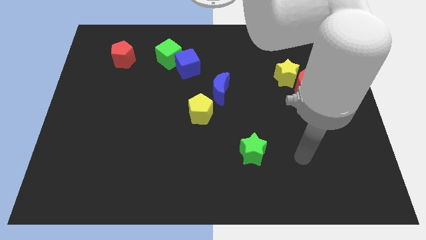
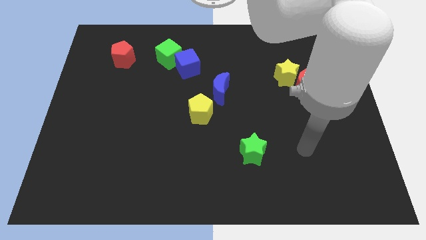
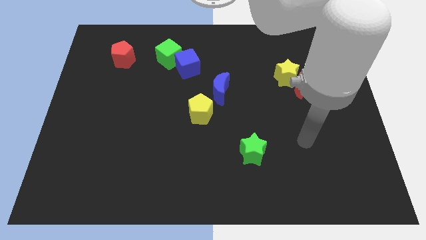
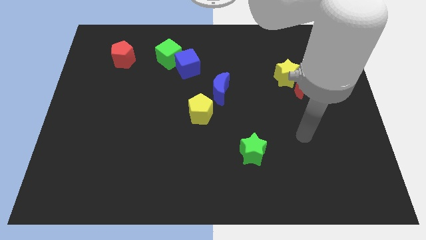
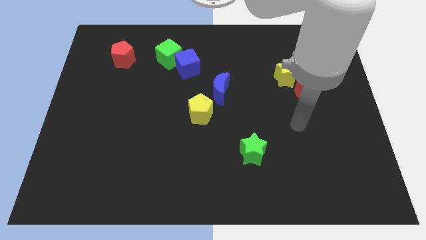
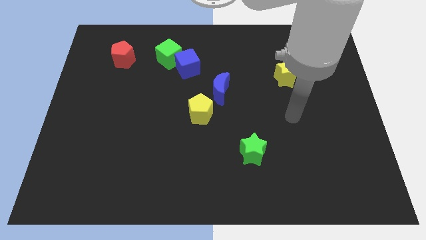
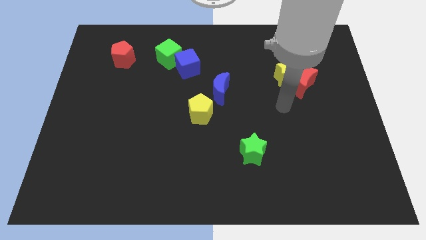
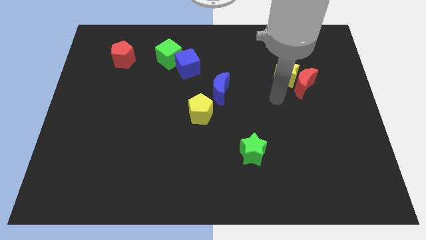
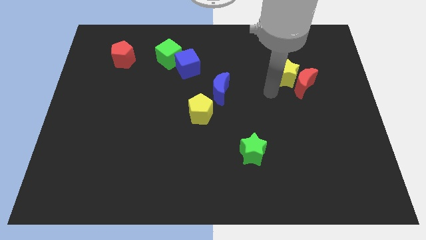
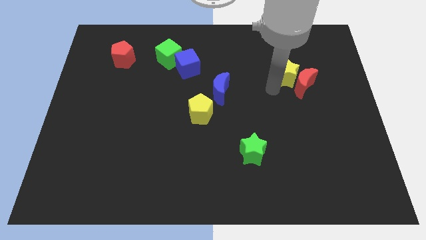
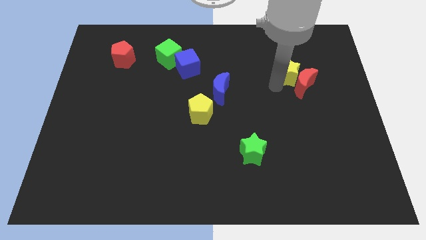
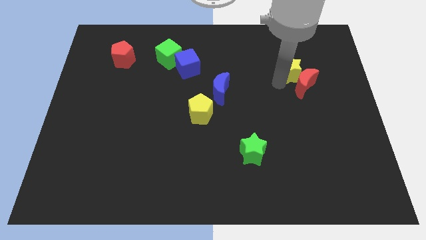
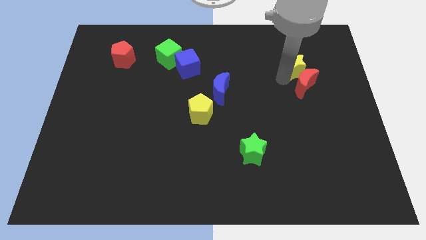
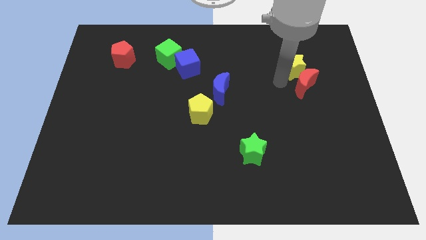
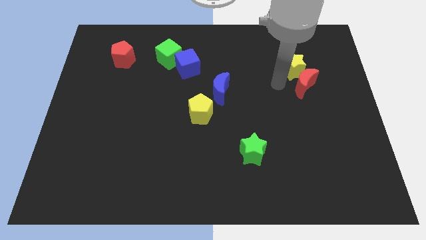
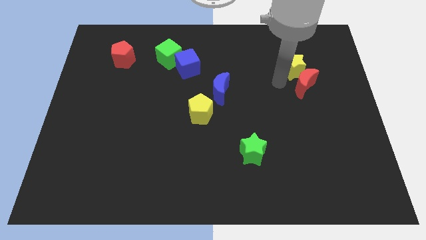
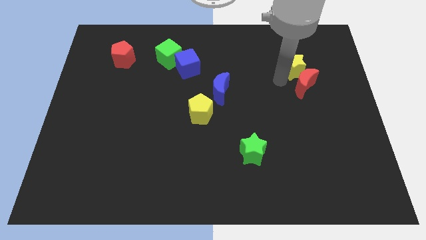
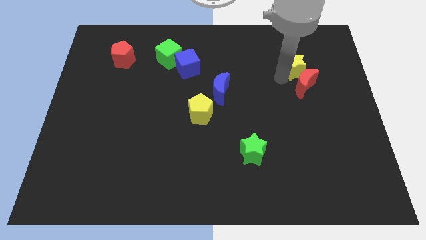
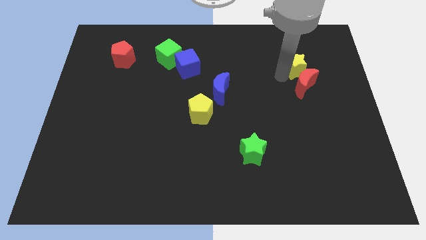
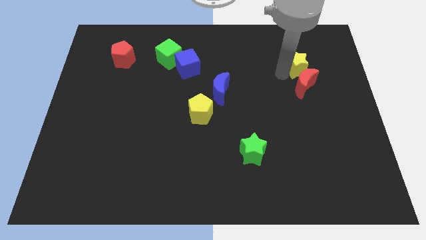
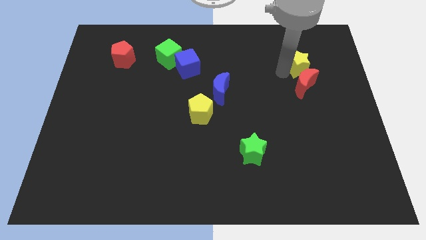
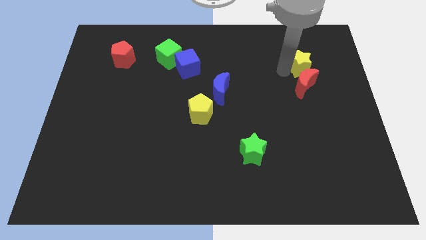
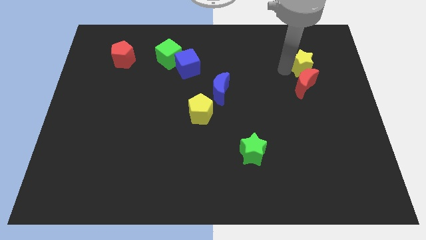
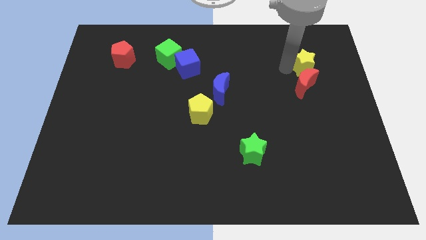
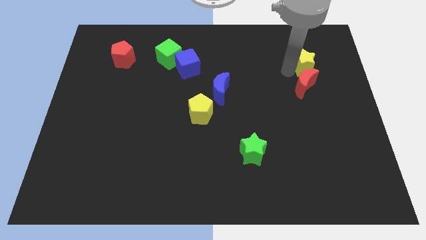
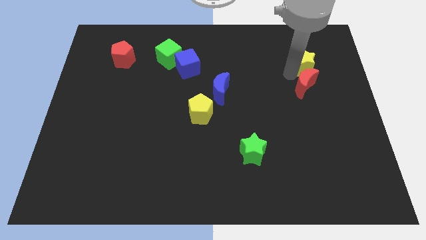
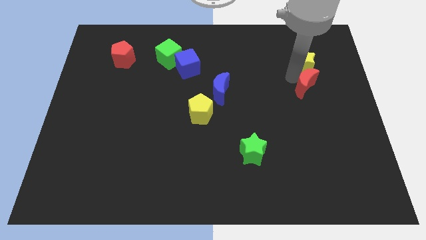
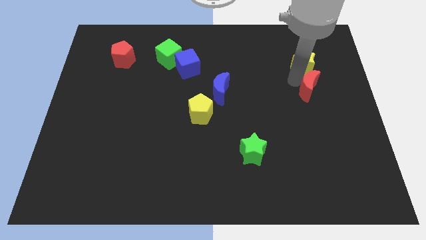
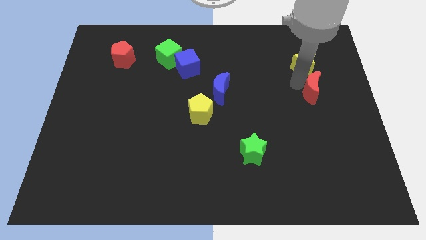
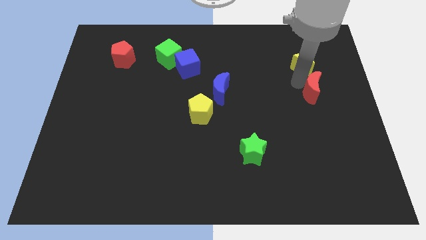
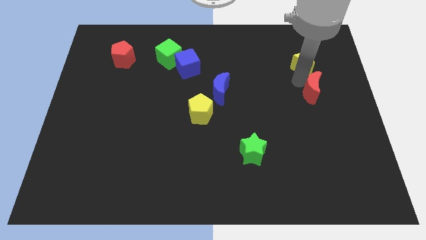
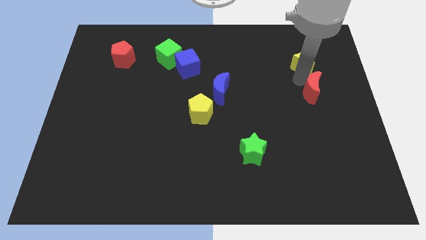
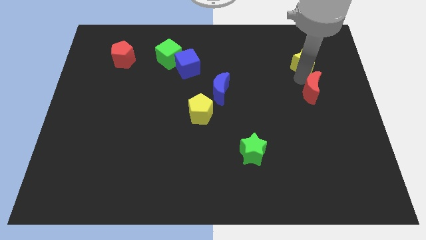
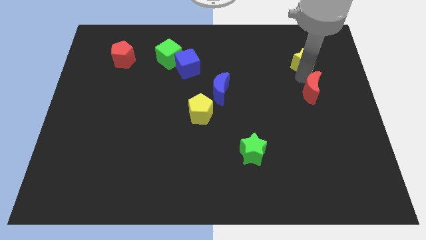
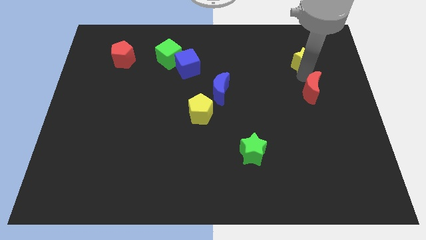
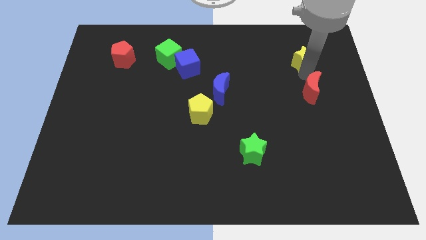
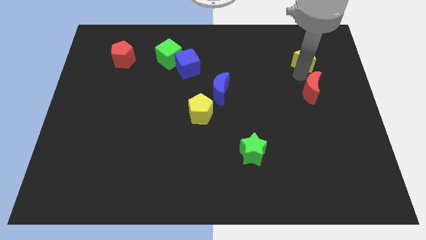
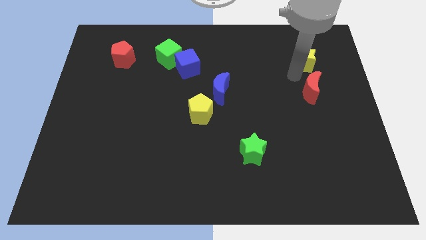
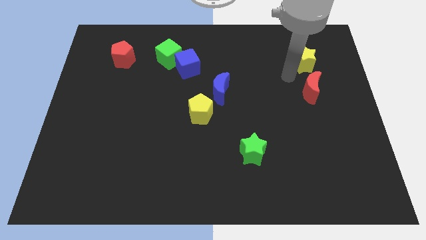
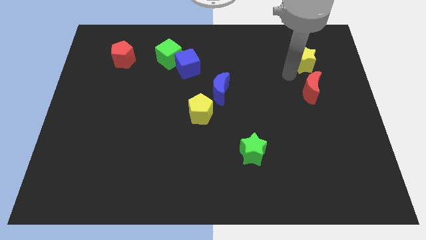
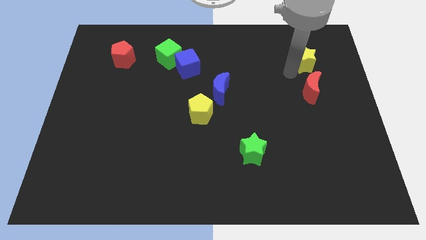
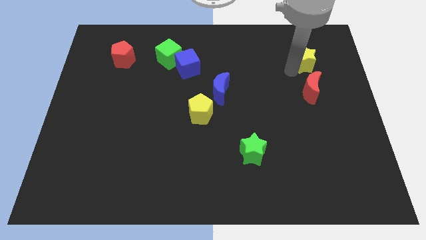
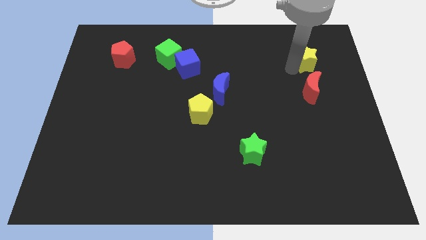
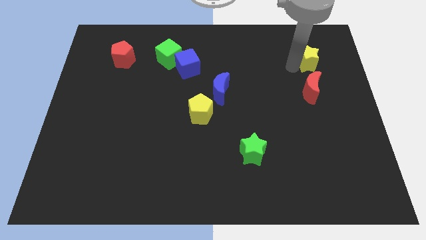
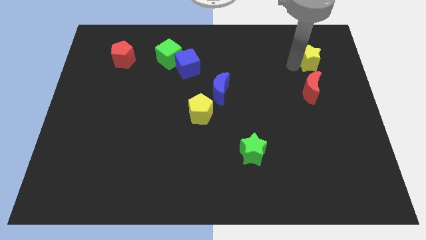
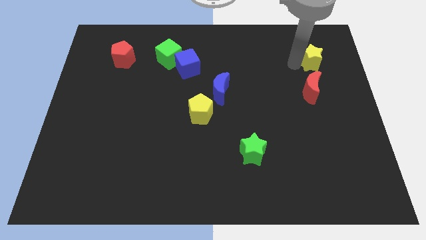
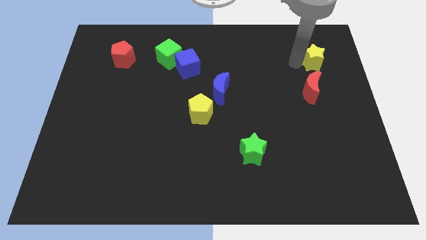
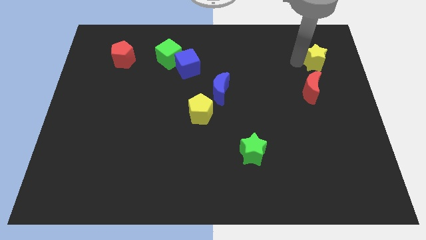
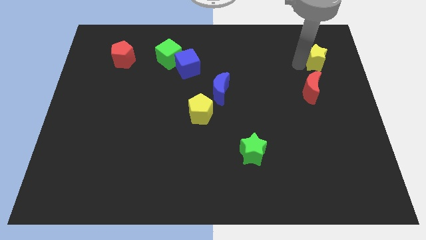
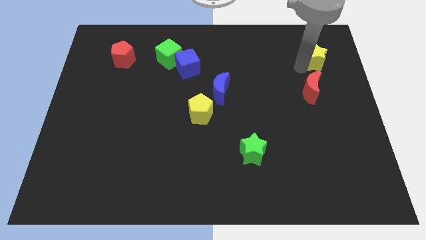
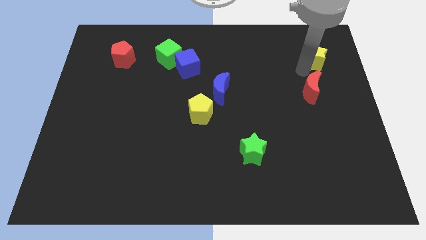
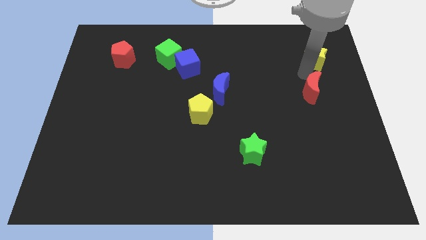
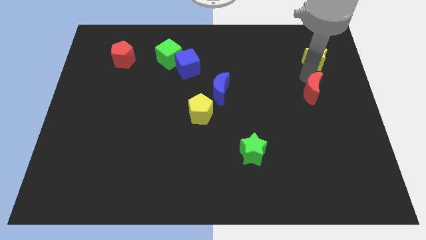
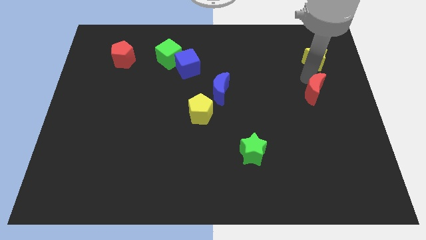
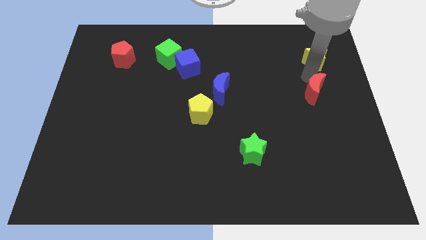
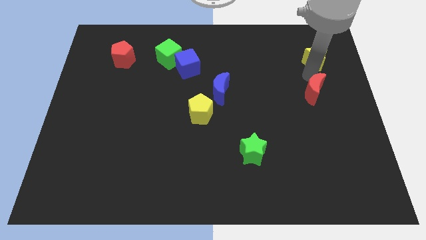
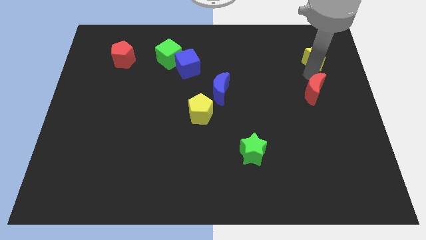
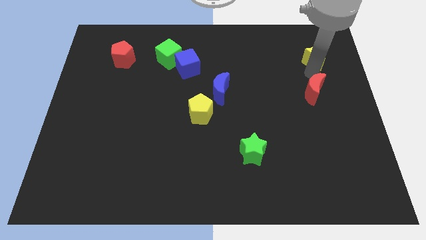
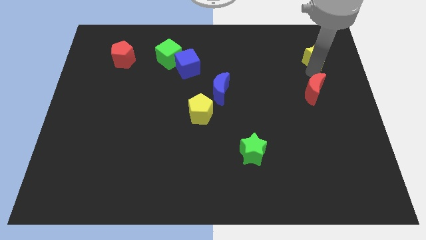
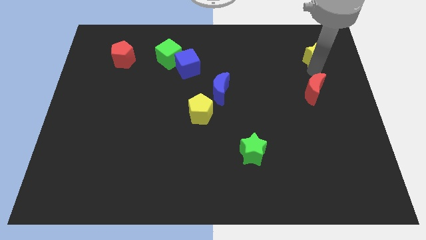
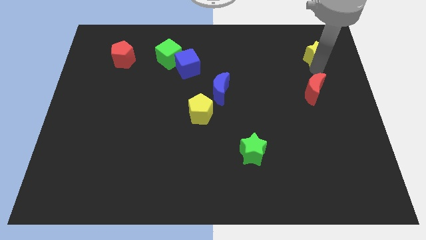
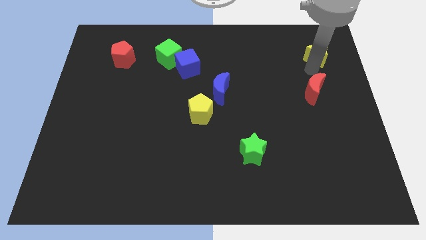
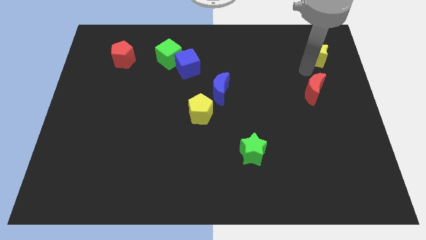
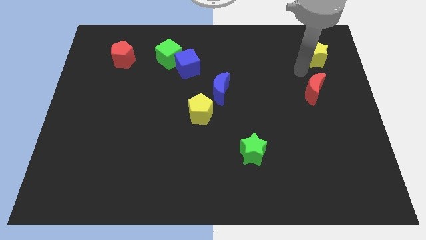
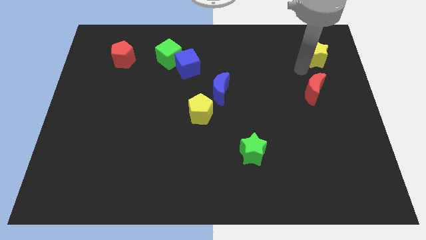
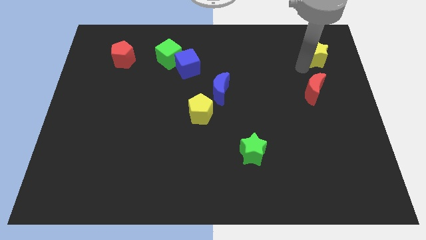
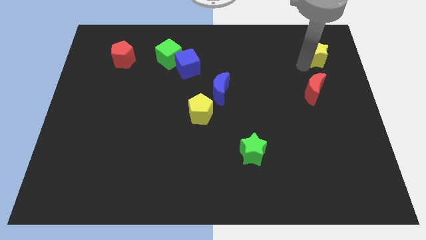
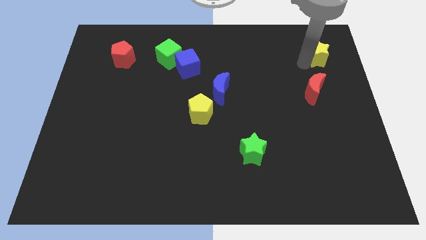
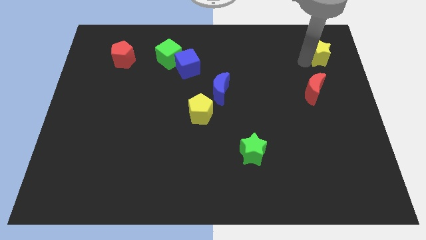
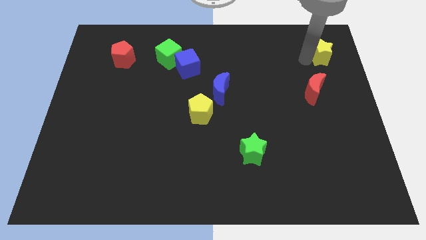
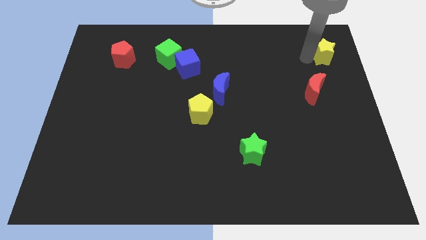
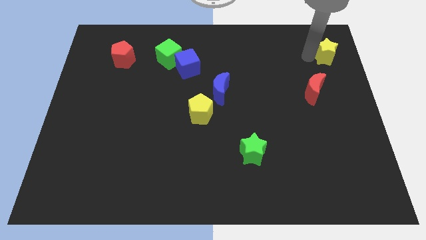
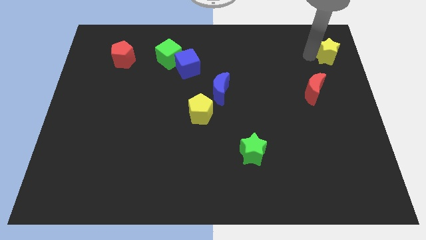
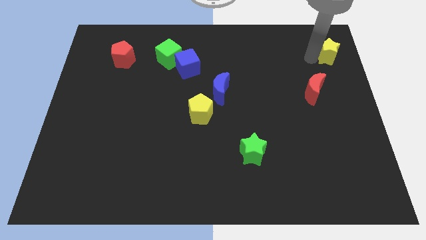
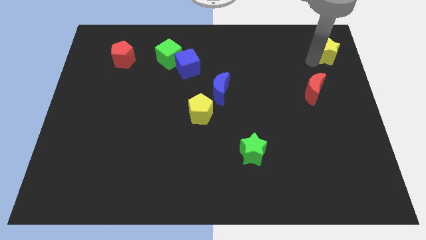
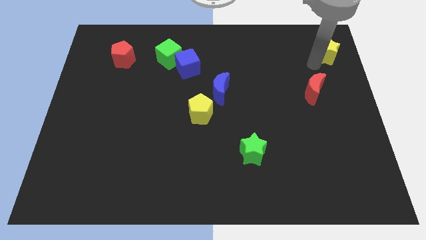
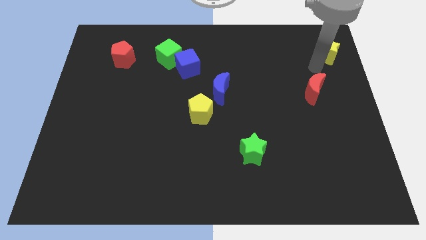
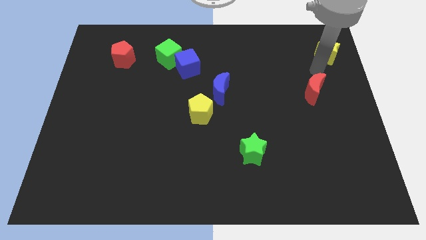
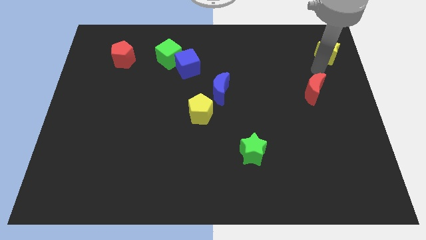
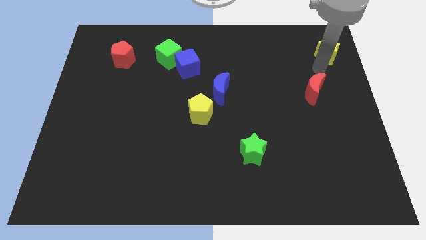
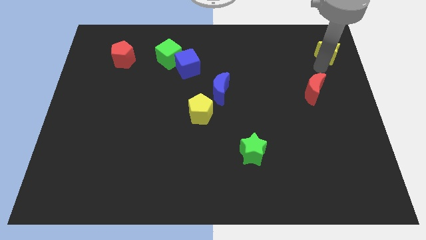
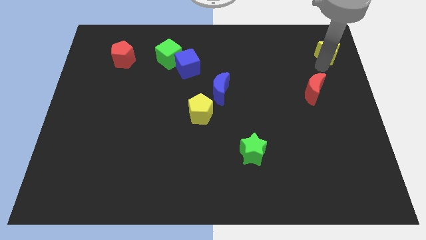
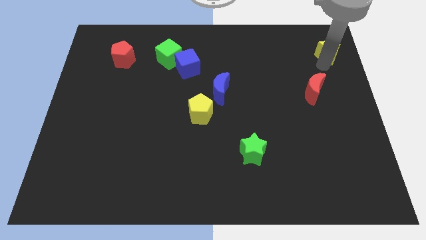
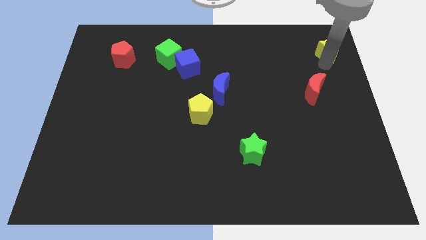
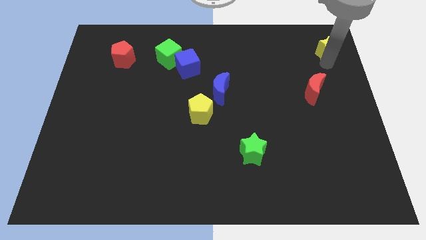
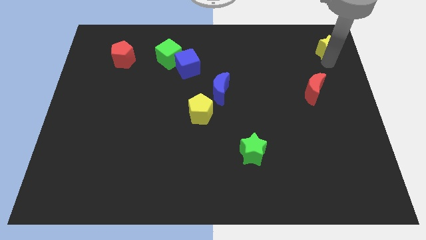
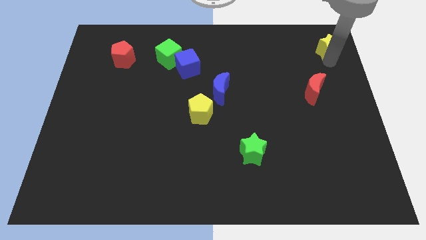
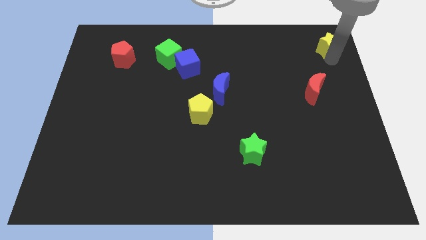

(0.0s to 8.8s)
put the yellow star to the upper right corner
